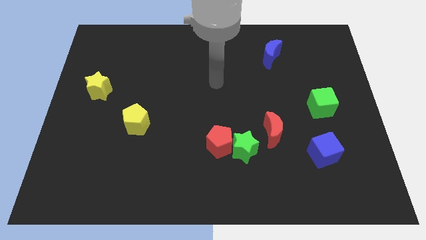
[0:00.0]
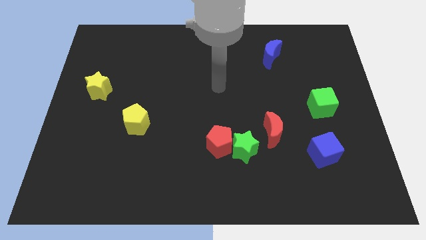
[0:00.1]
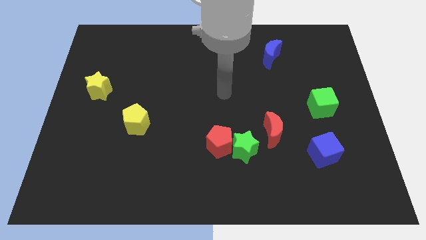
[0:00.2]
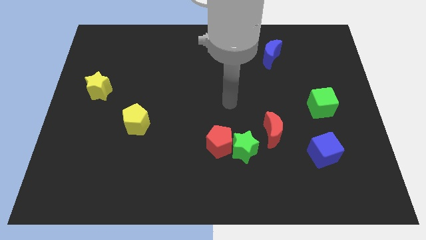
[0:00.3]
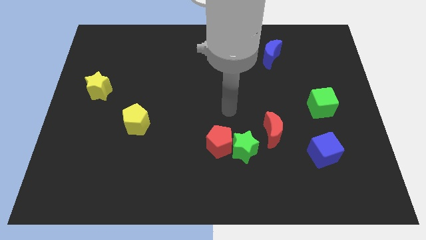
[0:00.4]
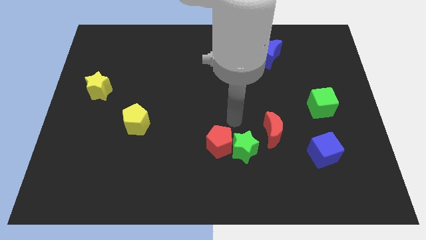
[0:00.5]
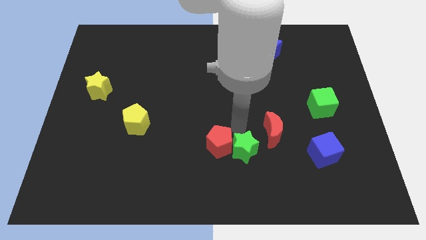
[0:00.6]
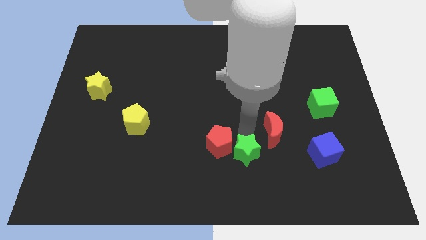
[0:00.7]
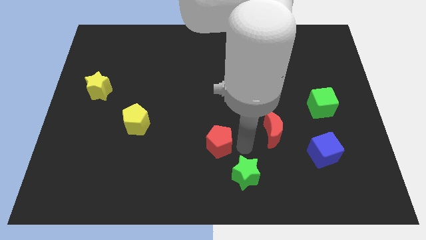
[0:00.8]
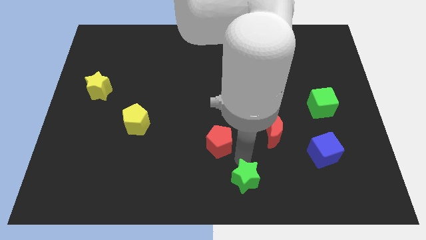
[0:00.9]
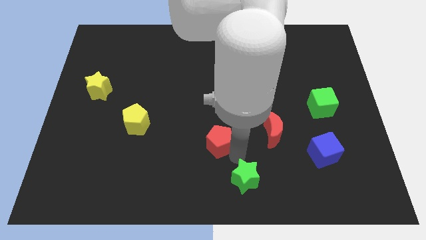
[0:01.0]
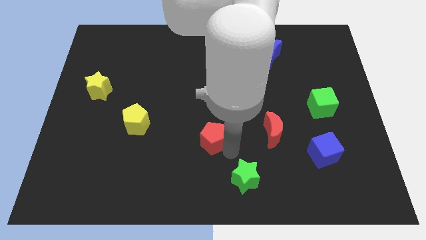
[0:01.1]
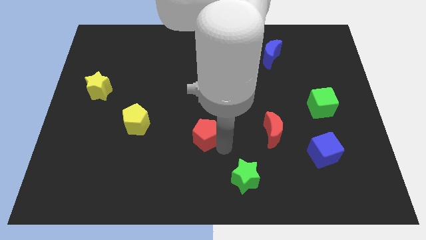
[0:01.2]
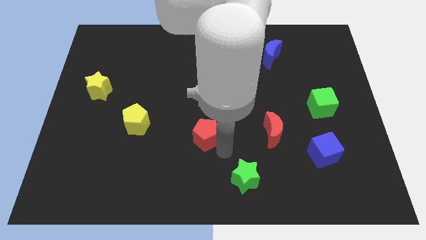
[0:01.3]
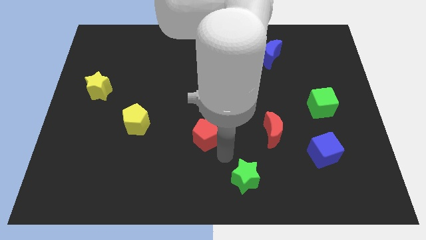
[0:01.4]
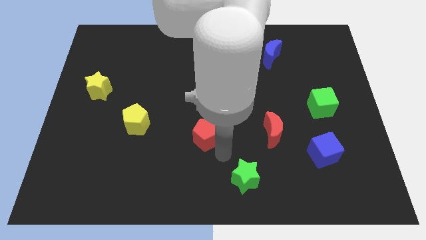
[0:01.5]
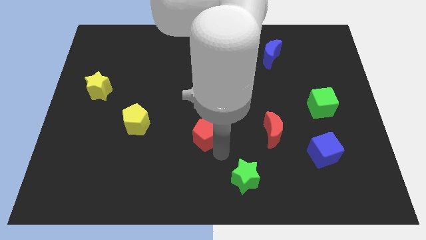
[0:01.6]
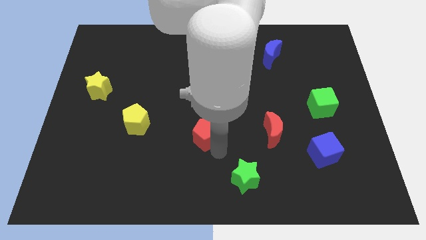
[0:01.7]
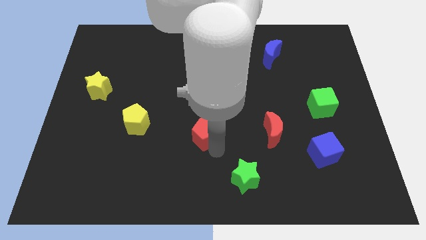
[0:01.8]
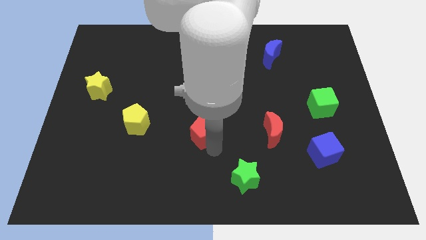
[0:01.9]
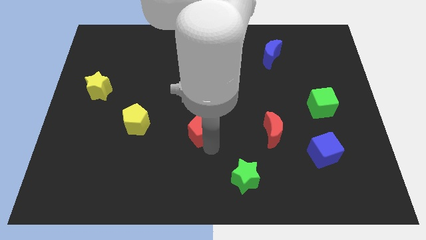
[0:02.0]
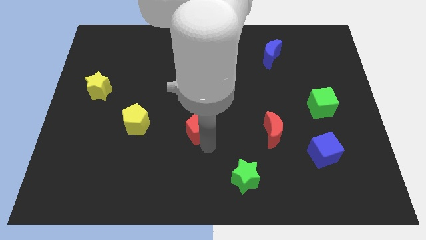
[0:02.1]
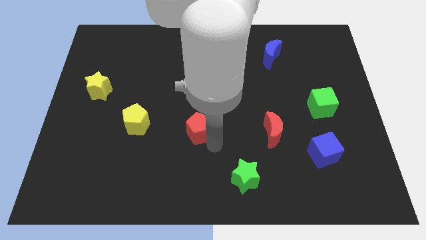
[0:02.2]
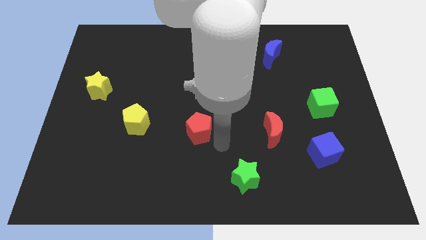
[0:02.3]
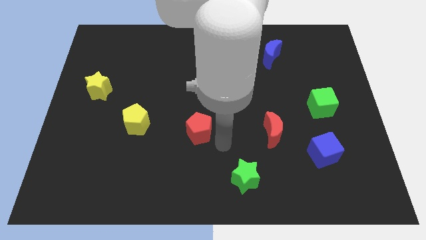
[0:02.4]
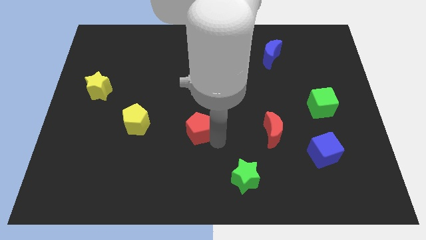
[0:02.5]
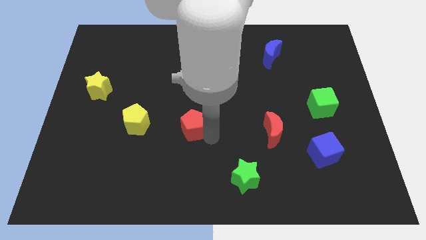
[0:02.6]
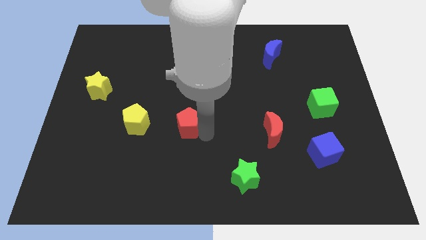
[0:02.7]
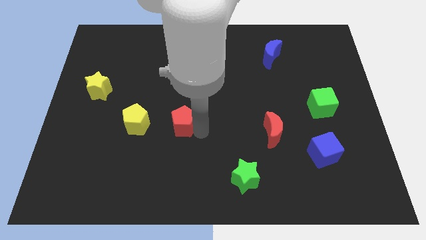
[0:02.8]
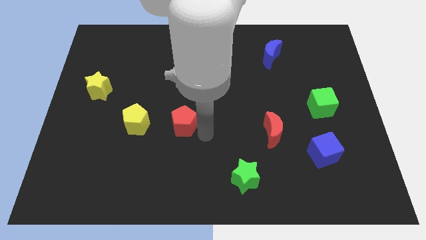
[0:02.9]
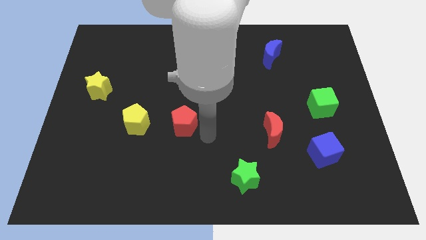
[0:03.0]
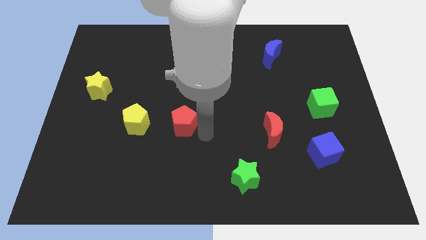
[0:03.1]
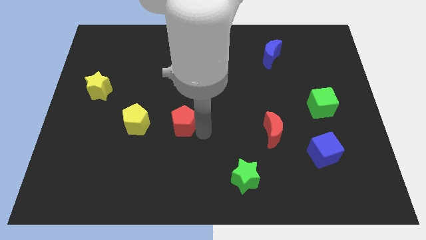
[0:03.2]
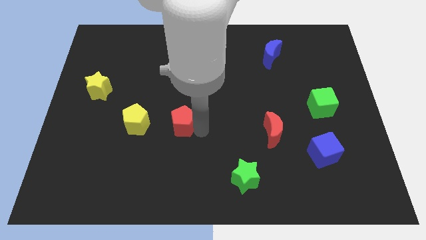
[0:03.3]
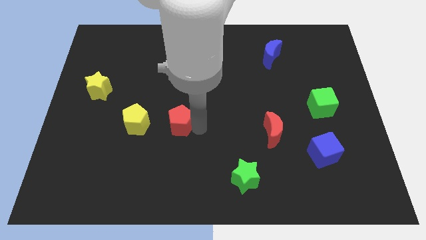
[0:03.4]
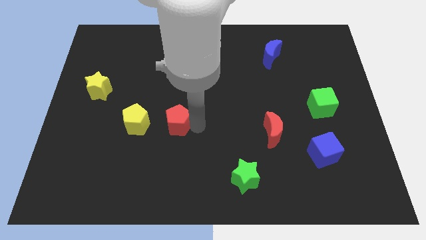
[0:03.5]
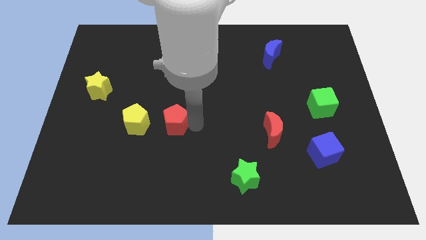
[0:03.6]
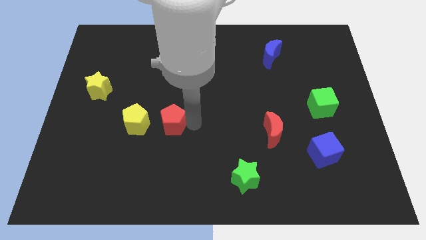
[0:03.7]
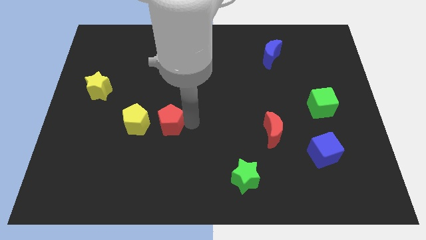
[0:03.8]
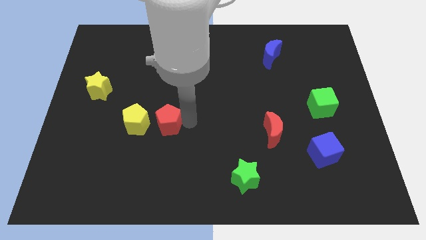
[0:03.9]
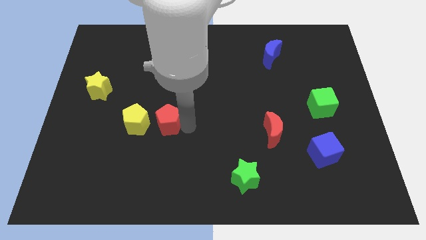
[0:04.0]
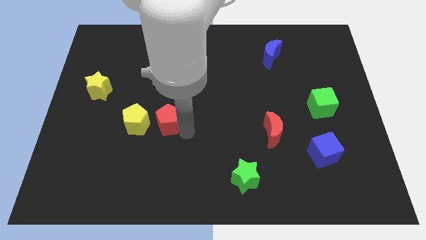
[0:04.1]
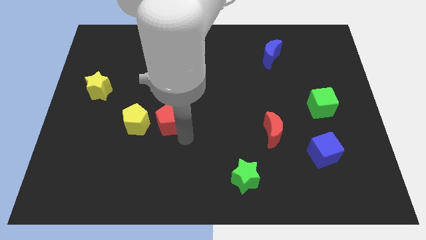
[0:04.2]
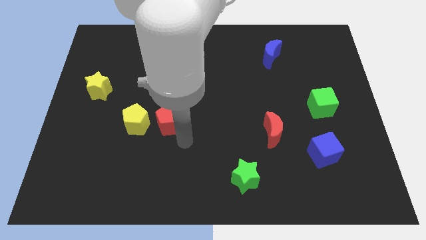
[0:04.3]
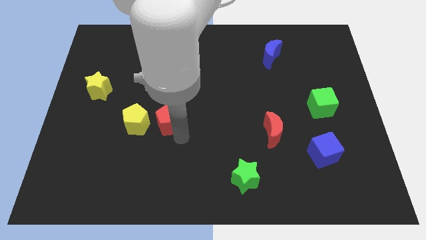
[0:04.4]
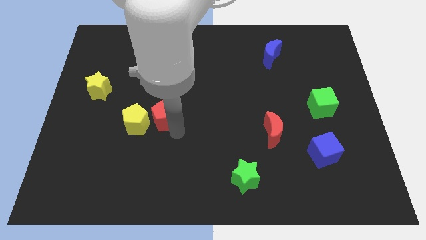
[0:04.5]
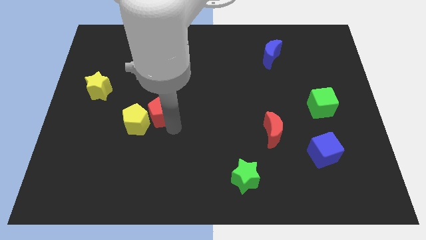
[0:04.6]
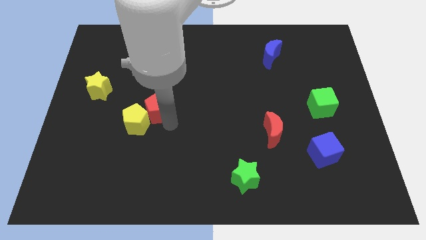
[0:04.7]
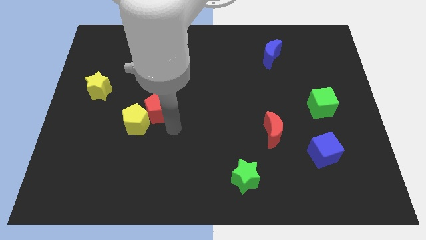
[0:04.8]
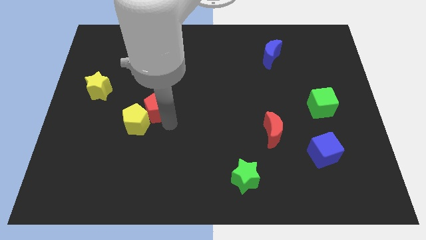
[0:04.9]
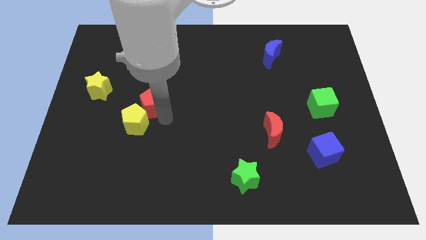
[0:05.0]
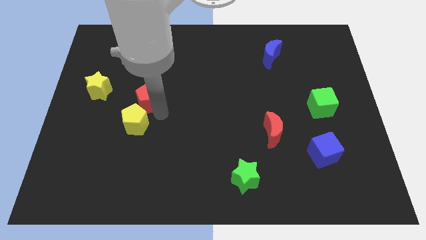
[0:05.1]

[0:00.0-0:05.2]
slide the red pentagon just right of the yellow star

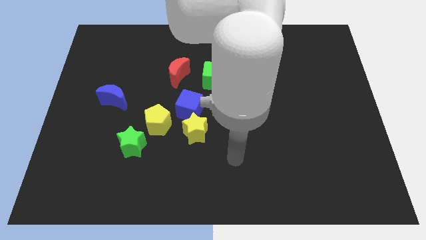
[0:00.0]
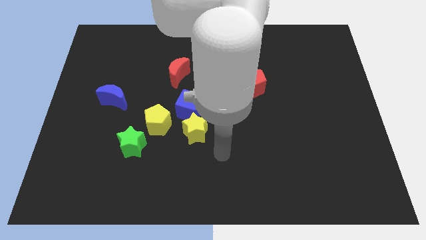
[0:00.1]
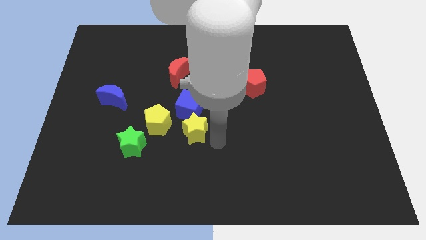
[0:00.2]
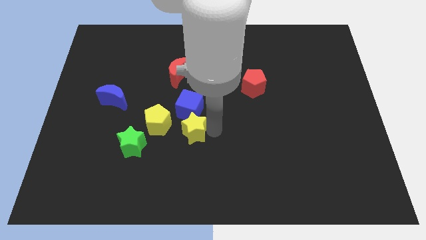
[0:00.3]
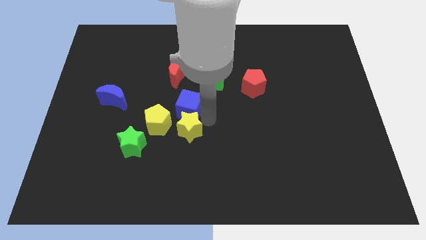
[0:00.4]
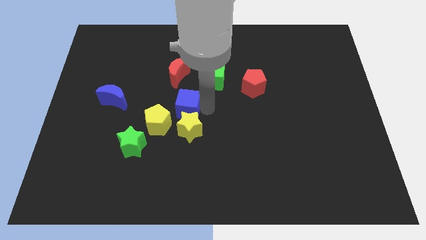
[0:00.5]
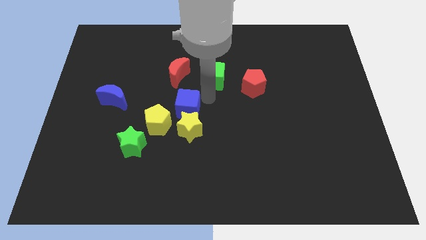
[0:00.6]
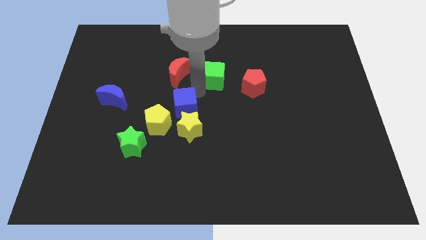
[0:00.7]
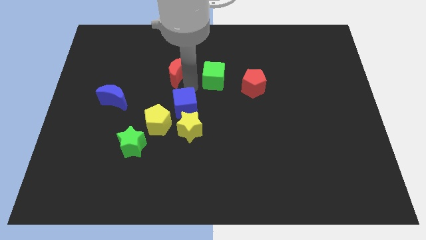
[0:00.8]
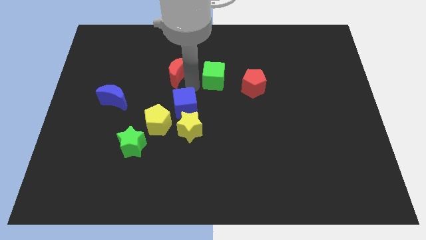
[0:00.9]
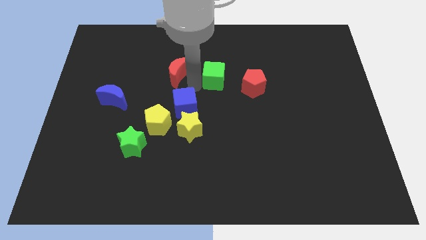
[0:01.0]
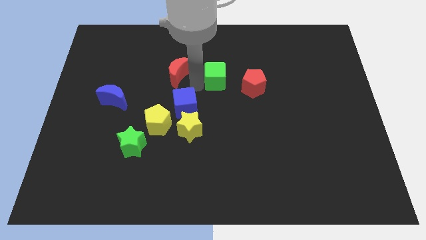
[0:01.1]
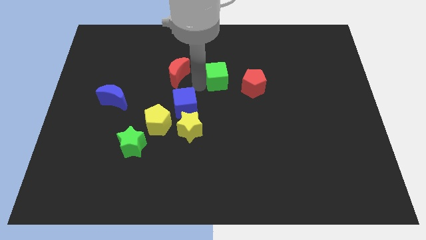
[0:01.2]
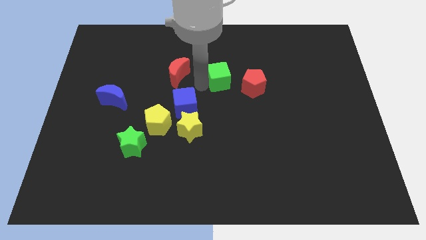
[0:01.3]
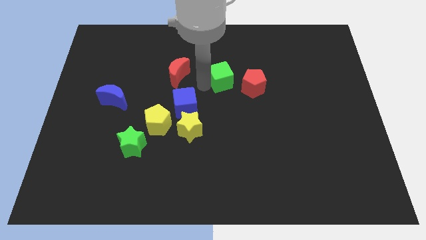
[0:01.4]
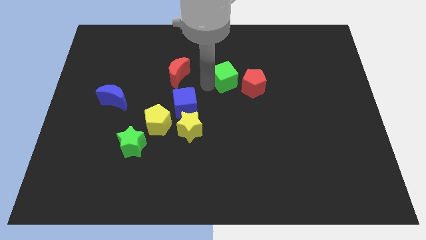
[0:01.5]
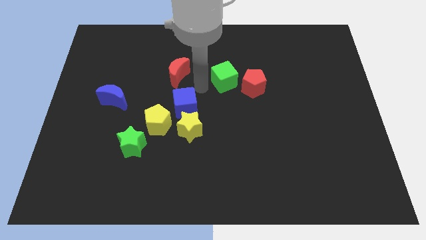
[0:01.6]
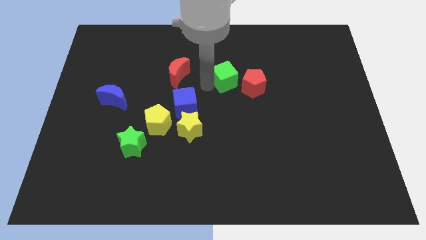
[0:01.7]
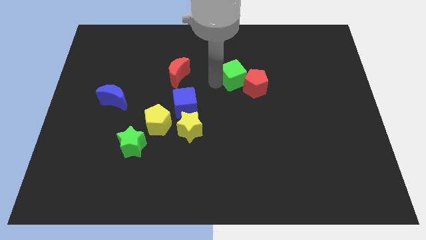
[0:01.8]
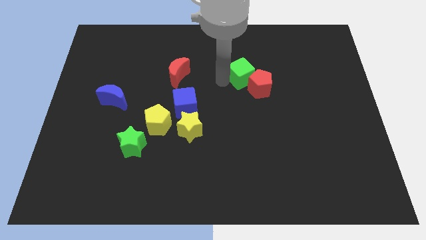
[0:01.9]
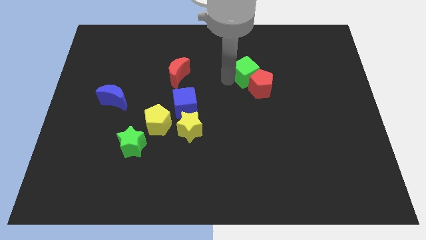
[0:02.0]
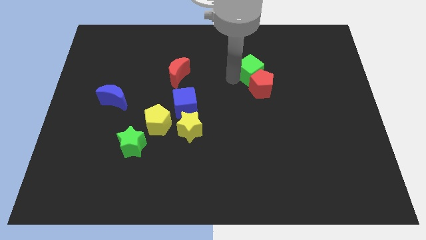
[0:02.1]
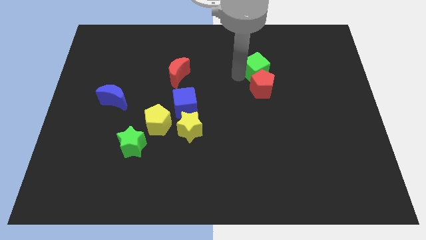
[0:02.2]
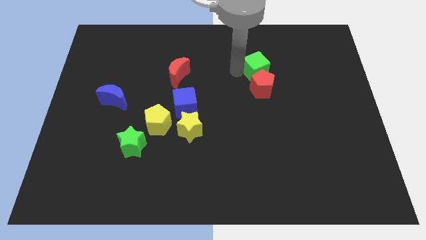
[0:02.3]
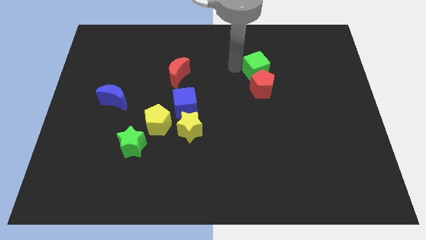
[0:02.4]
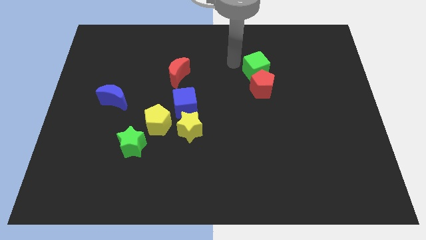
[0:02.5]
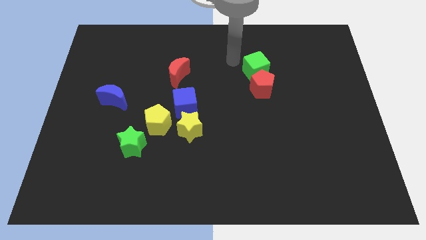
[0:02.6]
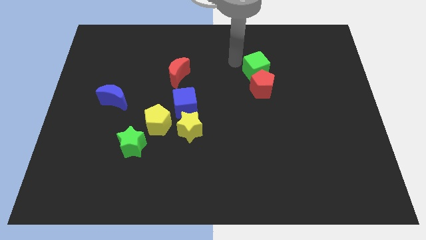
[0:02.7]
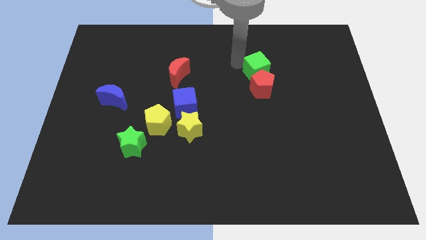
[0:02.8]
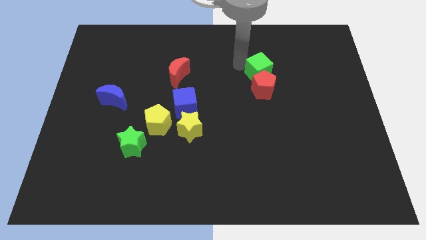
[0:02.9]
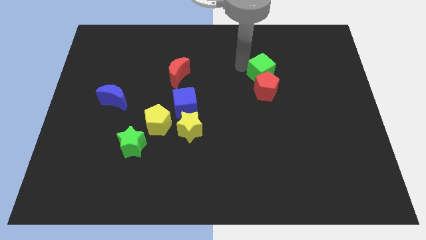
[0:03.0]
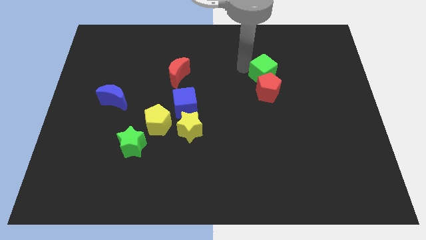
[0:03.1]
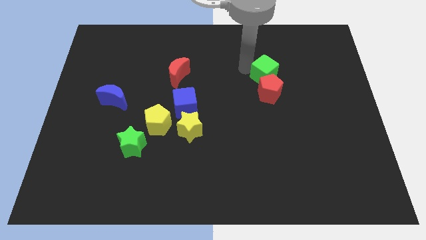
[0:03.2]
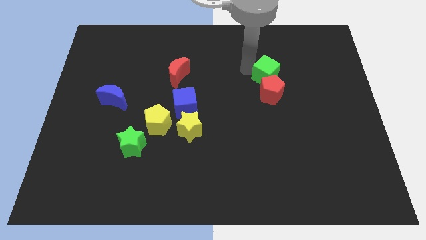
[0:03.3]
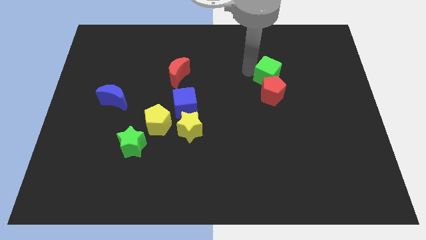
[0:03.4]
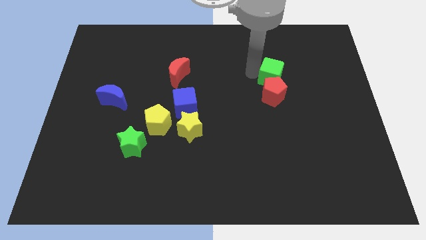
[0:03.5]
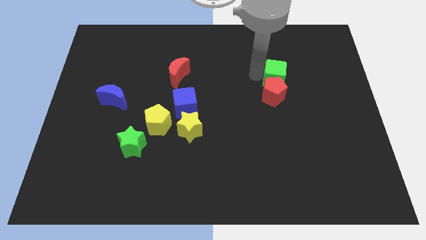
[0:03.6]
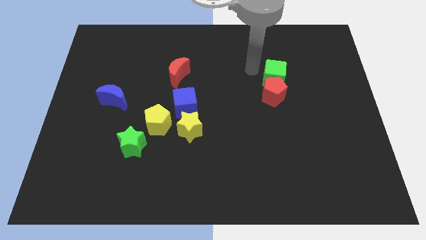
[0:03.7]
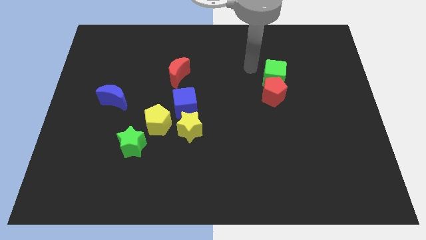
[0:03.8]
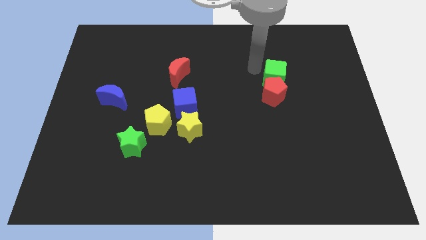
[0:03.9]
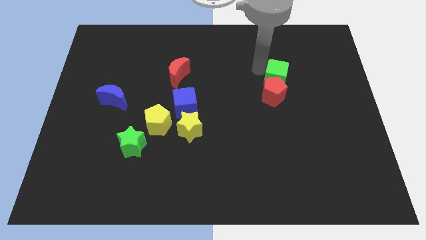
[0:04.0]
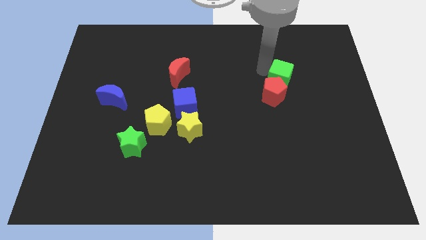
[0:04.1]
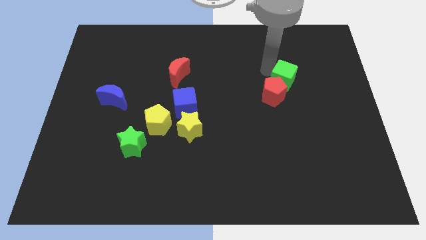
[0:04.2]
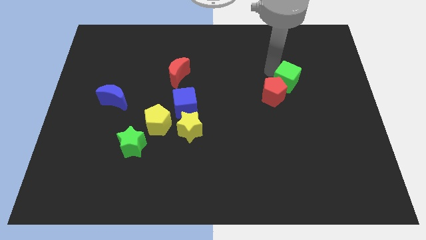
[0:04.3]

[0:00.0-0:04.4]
move the green cube right of the red pentagon
